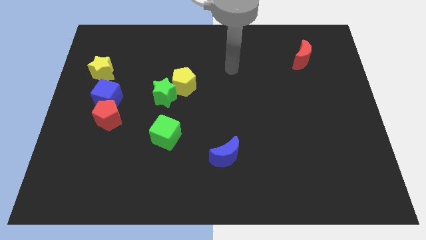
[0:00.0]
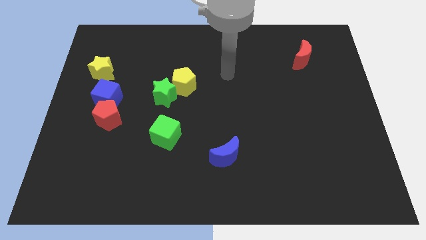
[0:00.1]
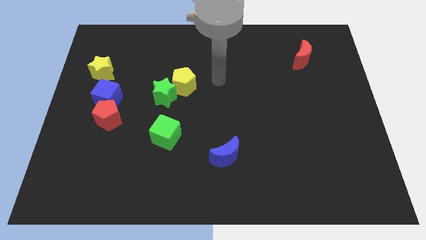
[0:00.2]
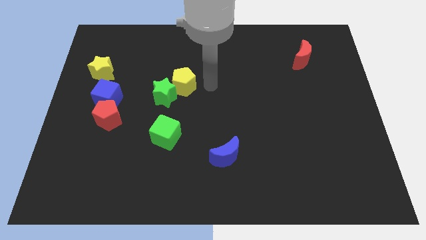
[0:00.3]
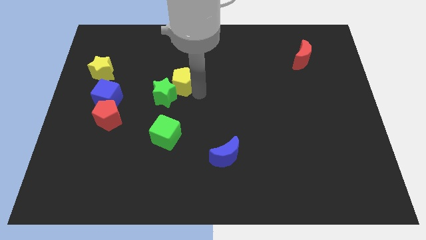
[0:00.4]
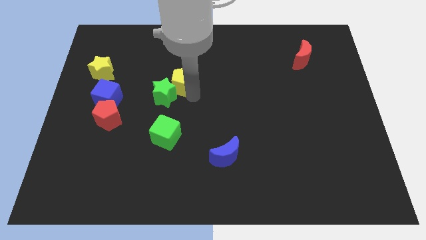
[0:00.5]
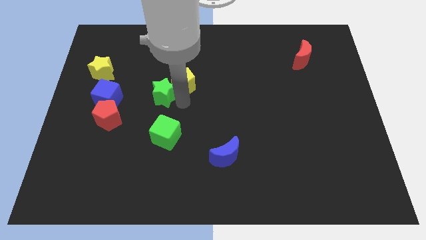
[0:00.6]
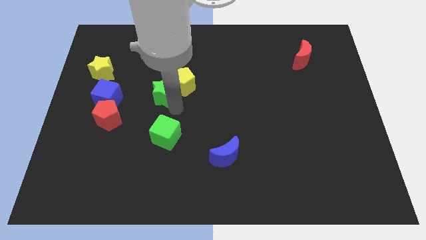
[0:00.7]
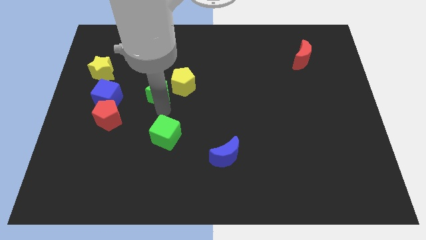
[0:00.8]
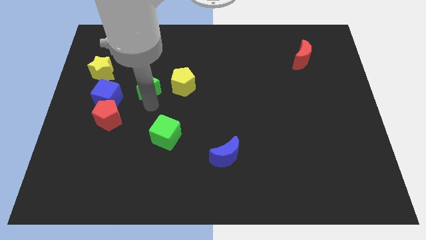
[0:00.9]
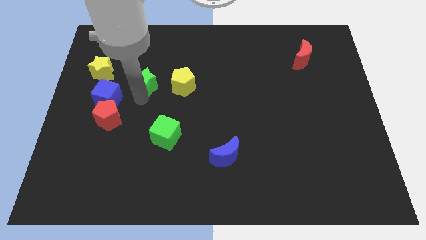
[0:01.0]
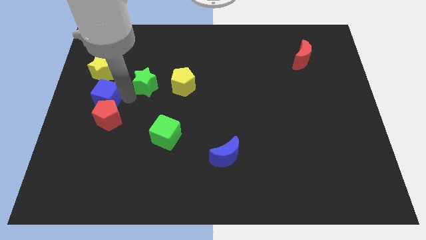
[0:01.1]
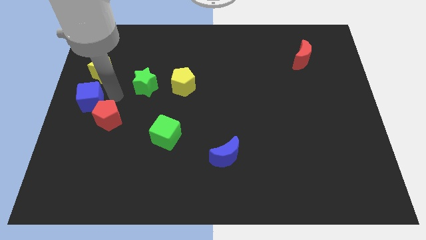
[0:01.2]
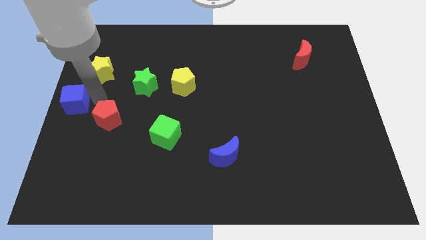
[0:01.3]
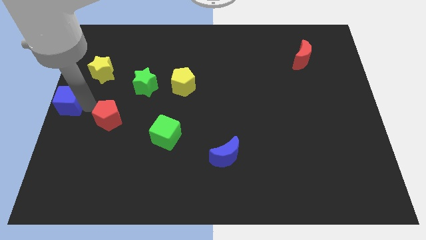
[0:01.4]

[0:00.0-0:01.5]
separate the red pentagon from the blue cube

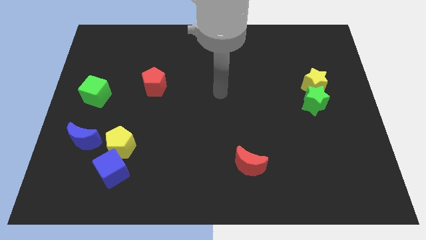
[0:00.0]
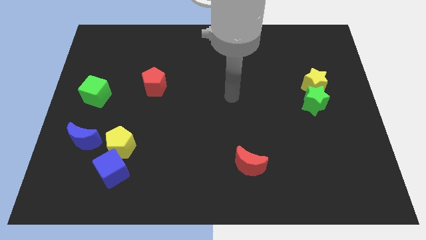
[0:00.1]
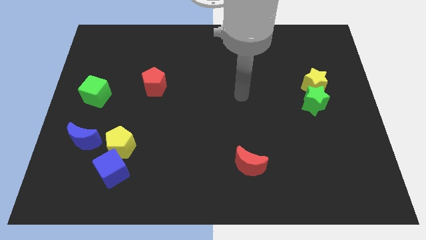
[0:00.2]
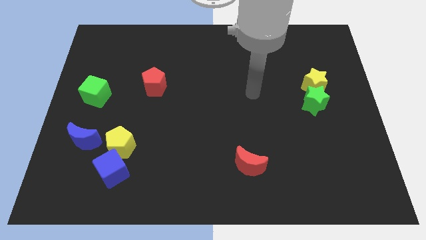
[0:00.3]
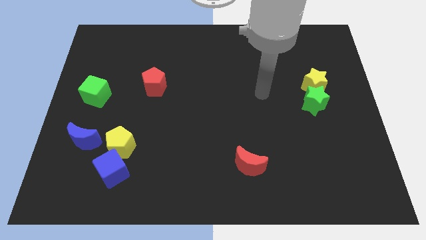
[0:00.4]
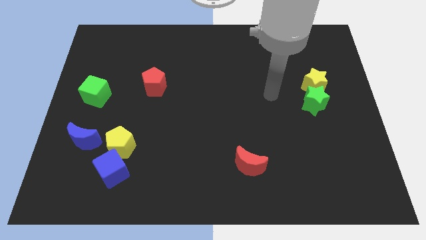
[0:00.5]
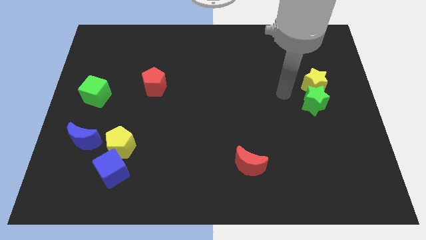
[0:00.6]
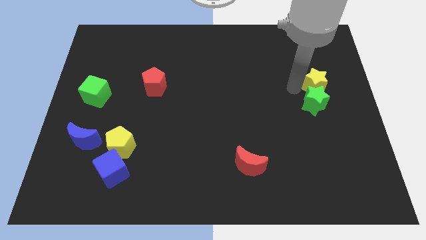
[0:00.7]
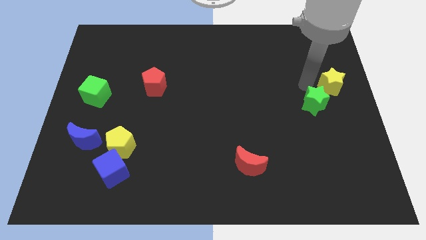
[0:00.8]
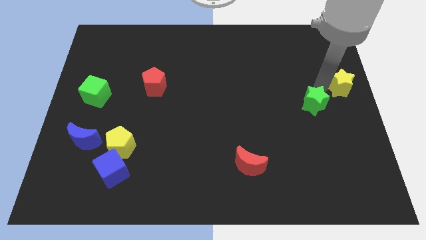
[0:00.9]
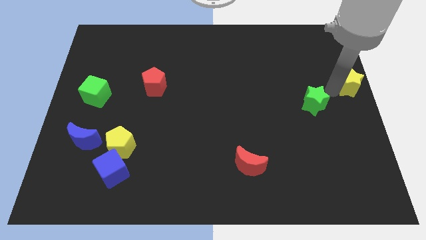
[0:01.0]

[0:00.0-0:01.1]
pull the green star apart from the yellow star

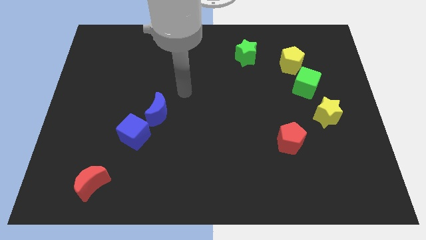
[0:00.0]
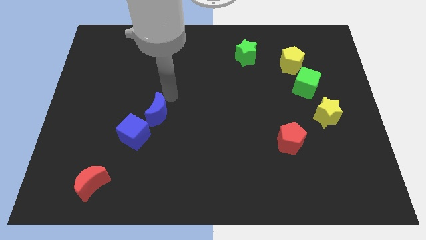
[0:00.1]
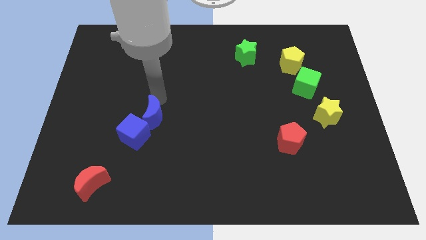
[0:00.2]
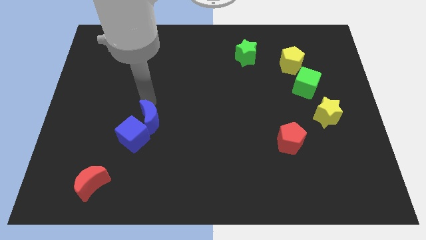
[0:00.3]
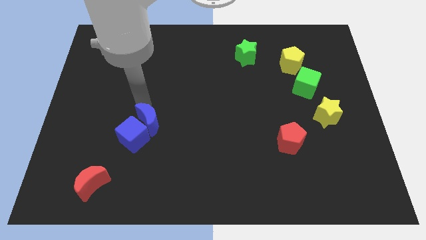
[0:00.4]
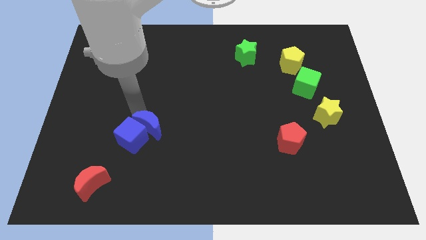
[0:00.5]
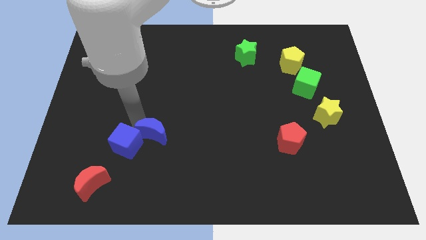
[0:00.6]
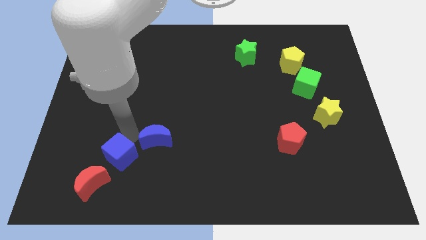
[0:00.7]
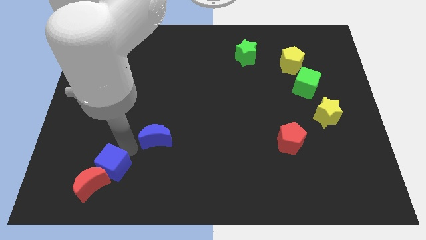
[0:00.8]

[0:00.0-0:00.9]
move the blue moon away from the blue cube

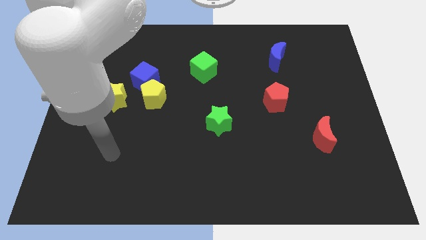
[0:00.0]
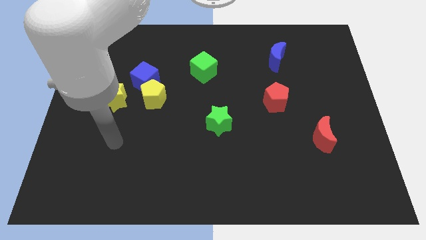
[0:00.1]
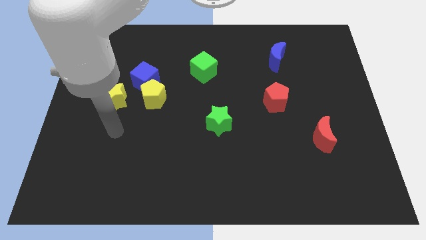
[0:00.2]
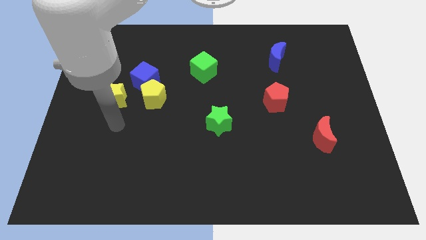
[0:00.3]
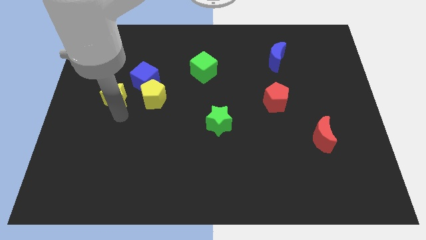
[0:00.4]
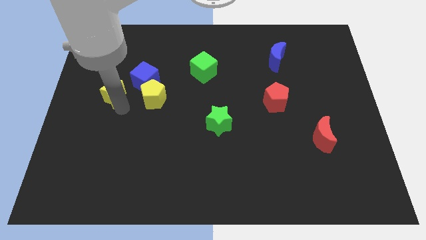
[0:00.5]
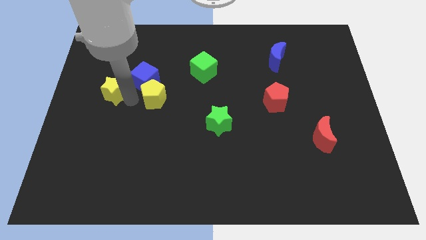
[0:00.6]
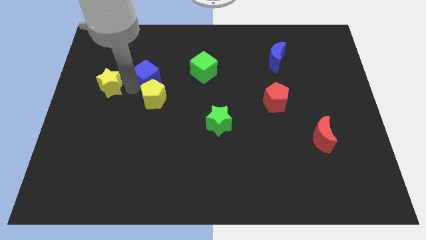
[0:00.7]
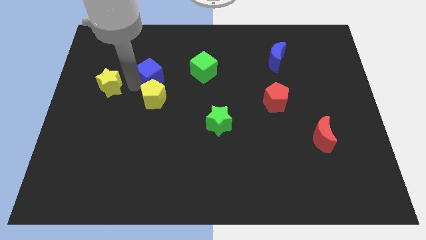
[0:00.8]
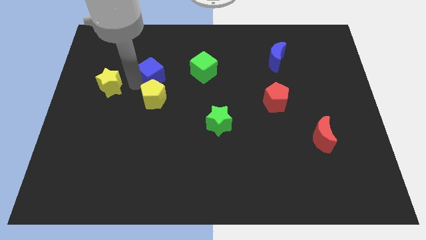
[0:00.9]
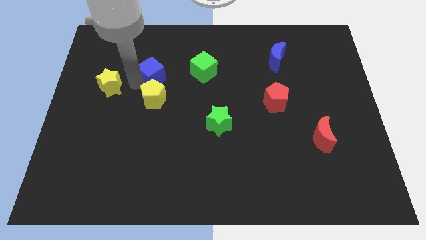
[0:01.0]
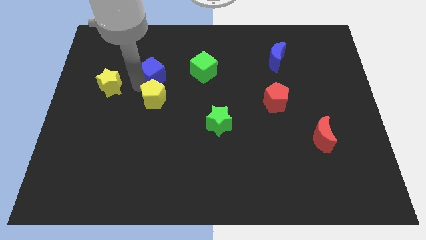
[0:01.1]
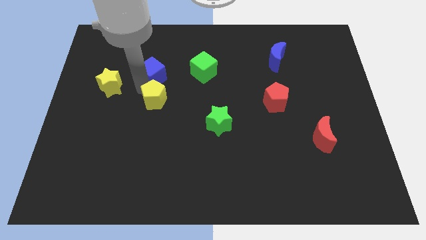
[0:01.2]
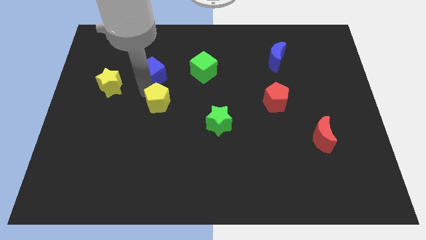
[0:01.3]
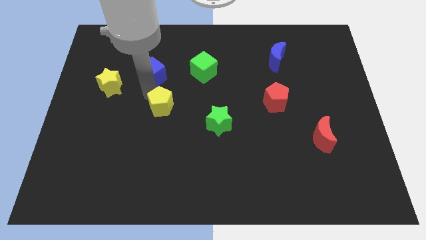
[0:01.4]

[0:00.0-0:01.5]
move the yellow pentagon away from the blue cube and yellow star

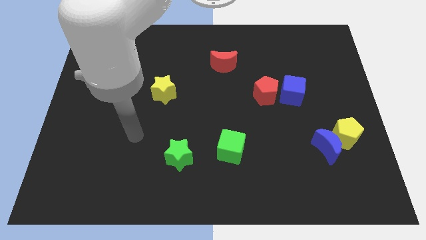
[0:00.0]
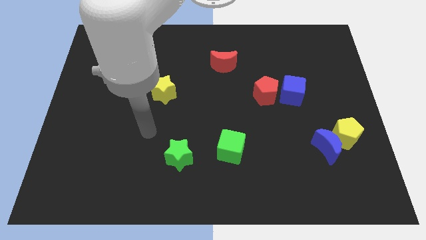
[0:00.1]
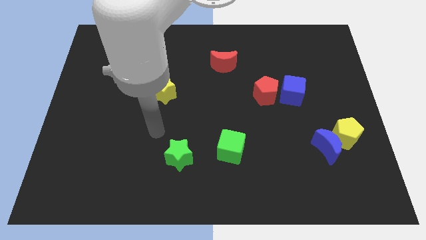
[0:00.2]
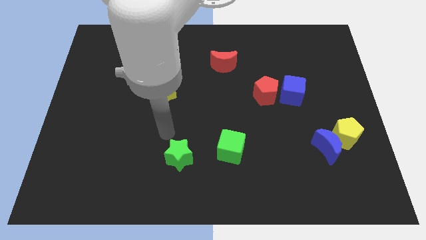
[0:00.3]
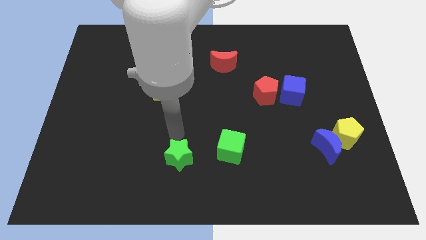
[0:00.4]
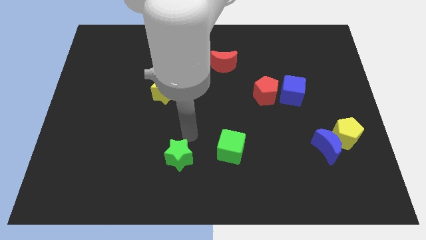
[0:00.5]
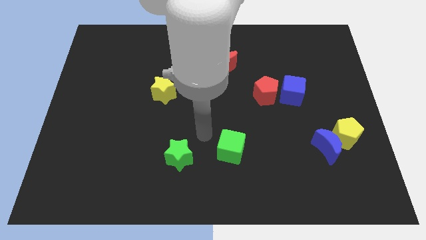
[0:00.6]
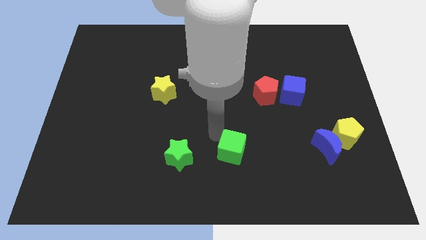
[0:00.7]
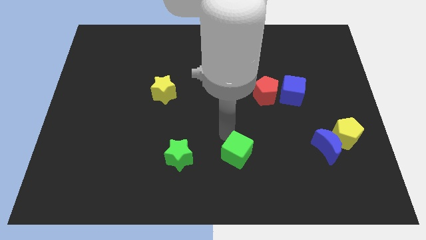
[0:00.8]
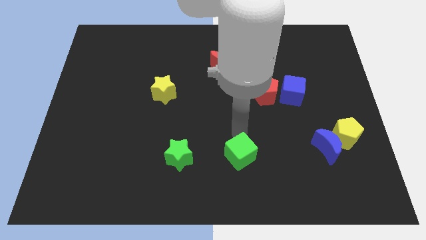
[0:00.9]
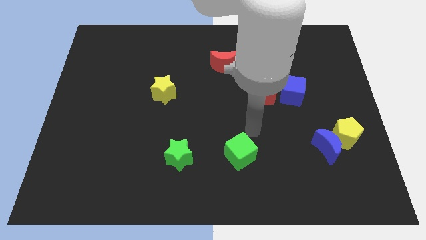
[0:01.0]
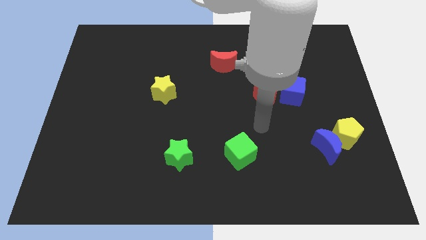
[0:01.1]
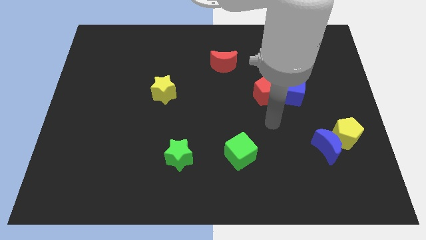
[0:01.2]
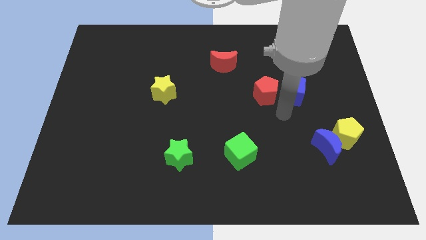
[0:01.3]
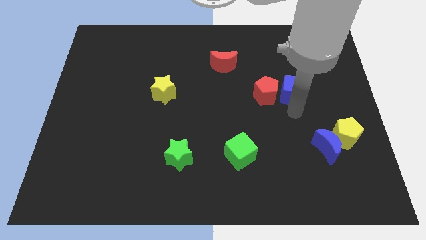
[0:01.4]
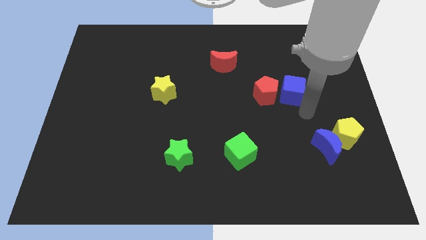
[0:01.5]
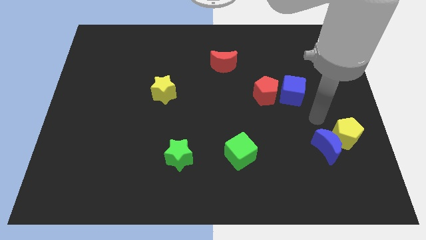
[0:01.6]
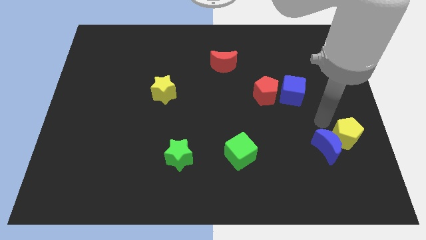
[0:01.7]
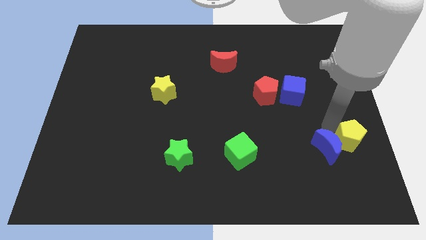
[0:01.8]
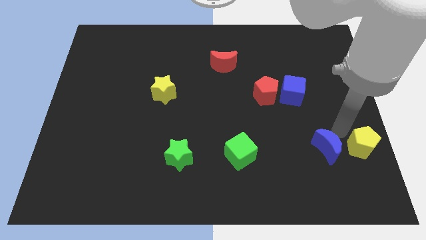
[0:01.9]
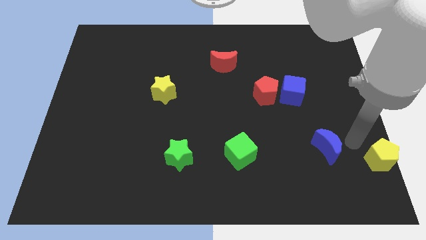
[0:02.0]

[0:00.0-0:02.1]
move the blue moon away from the yellow pentagon

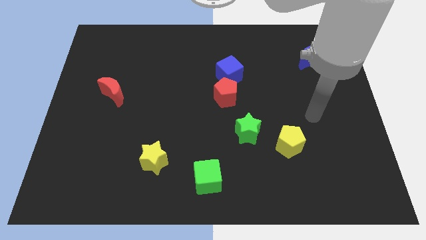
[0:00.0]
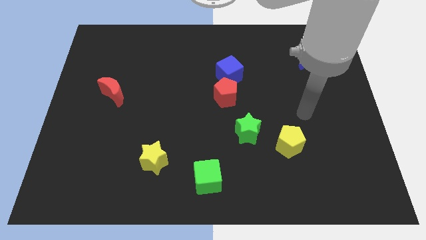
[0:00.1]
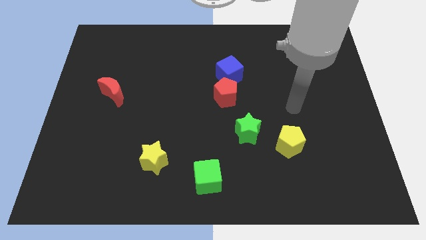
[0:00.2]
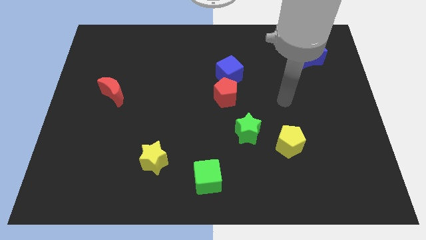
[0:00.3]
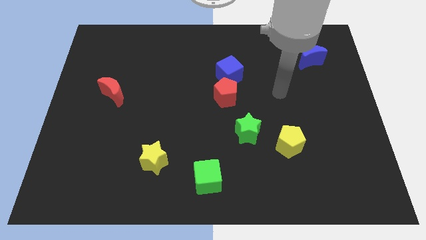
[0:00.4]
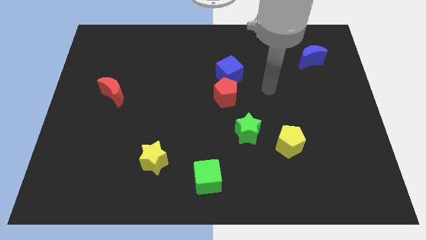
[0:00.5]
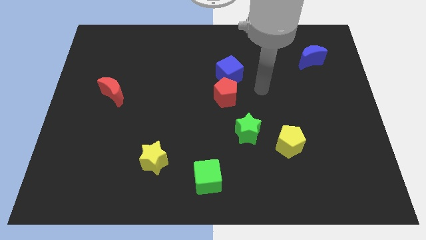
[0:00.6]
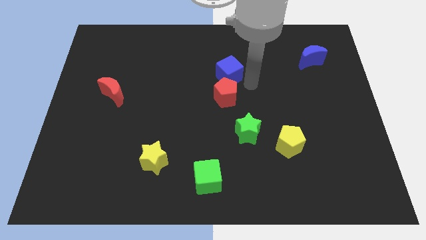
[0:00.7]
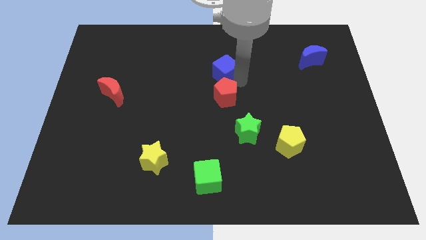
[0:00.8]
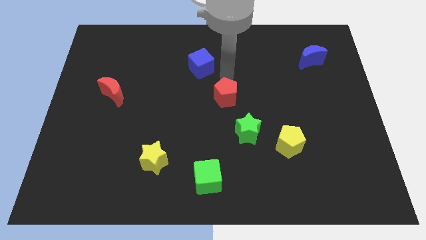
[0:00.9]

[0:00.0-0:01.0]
move the red pentagon away from the blue cube

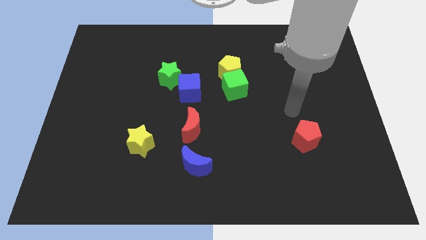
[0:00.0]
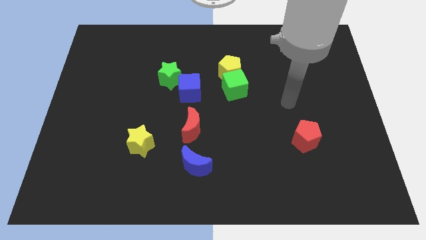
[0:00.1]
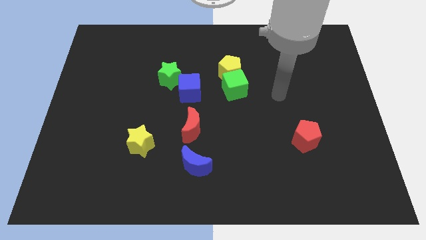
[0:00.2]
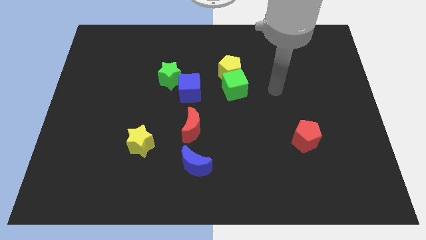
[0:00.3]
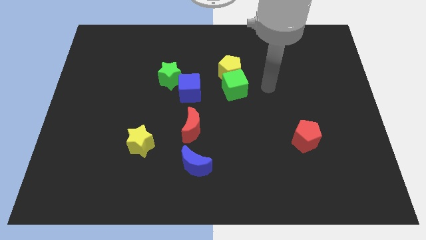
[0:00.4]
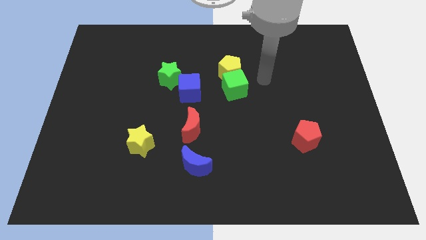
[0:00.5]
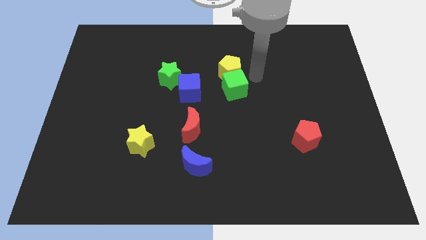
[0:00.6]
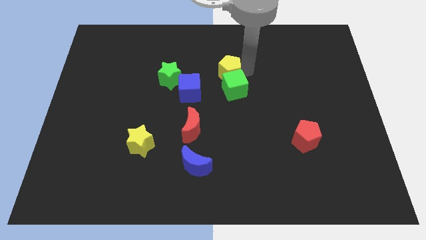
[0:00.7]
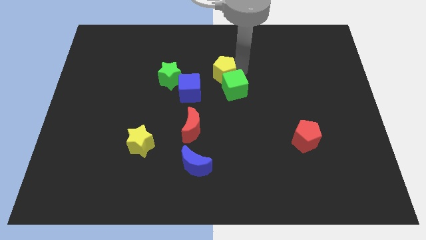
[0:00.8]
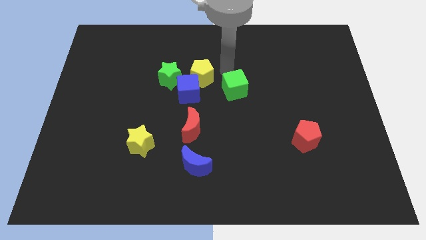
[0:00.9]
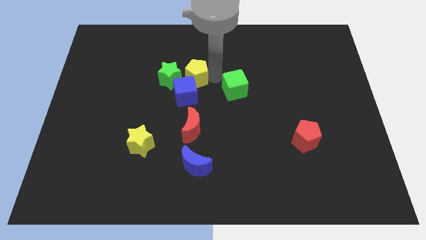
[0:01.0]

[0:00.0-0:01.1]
pull the green cube apart from the yellow pentagon
